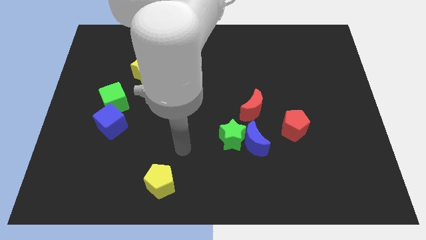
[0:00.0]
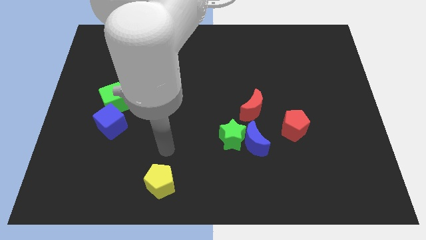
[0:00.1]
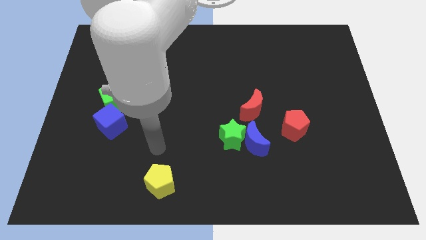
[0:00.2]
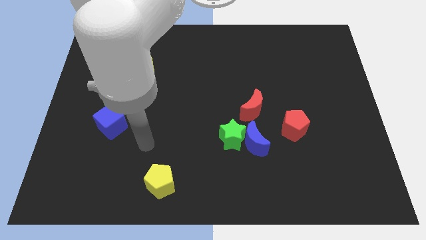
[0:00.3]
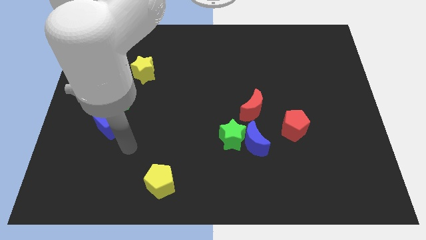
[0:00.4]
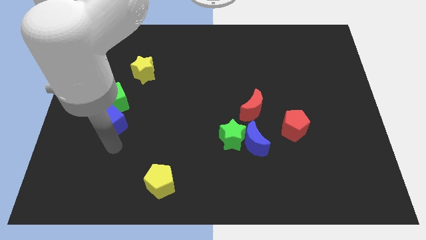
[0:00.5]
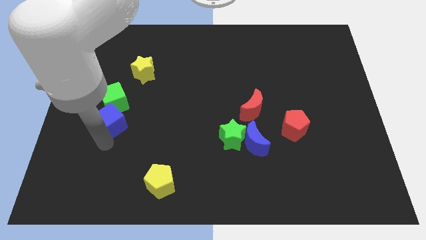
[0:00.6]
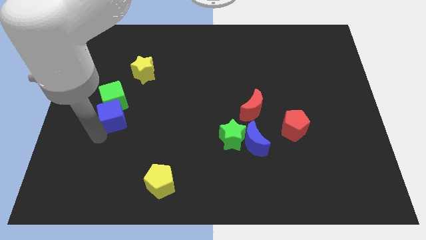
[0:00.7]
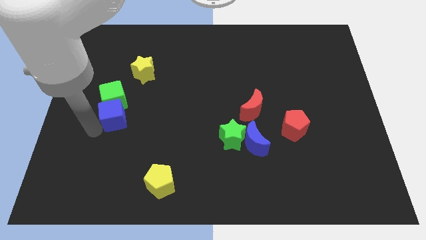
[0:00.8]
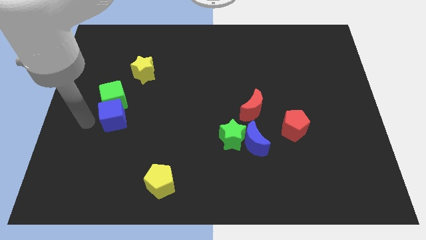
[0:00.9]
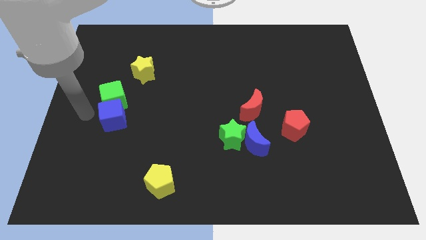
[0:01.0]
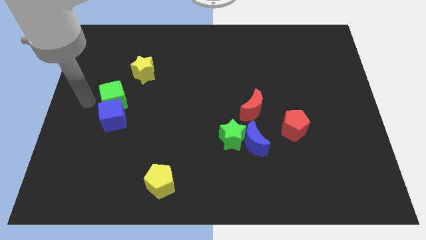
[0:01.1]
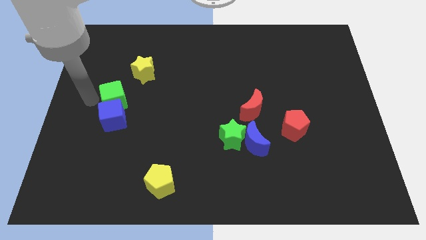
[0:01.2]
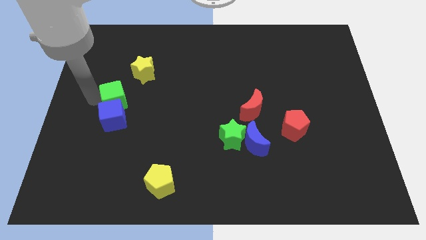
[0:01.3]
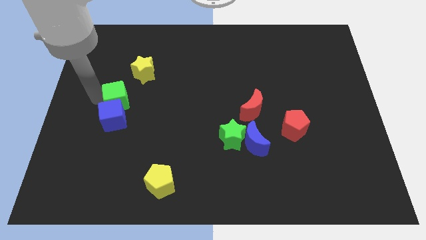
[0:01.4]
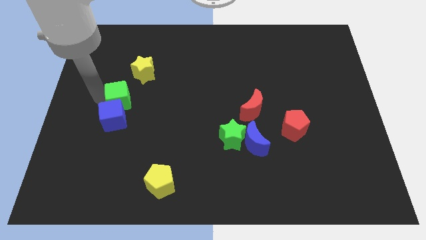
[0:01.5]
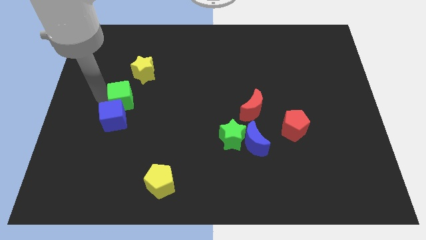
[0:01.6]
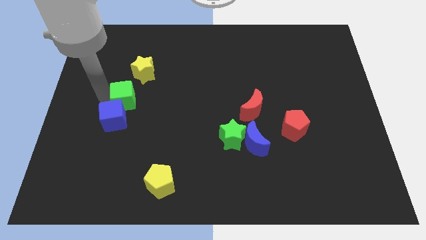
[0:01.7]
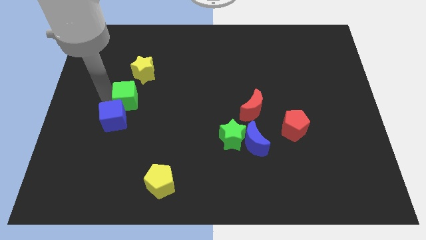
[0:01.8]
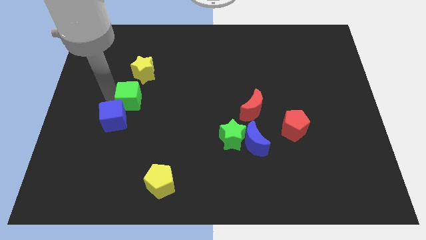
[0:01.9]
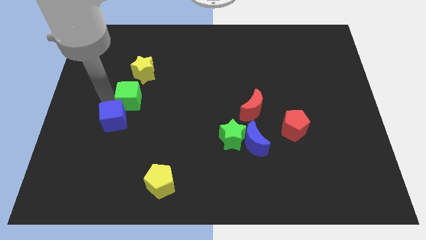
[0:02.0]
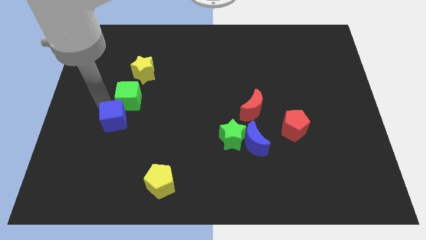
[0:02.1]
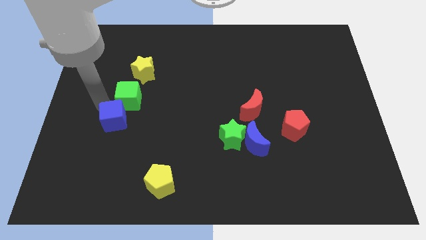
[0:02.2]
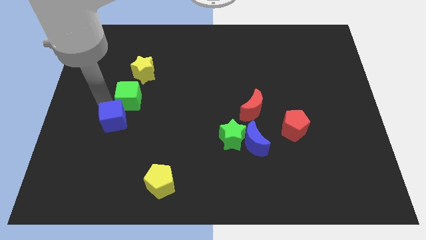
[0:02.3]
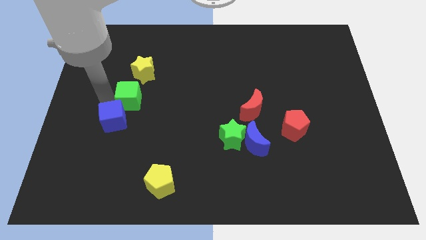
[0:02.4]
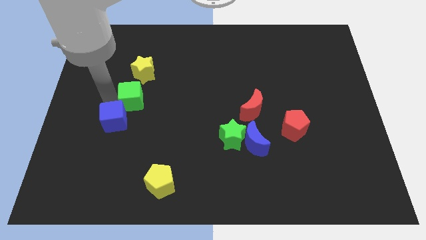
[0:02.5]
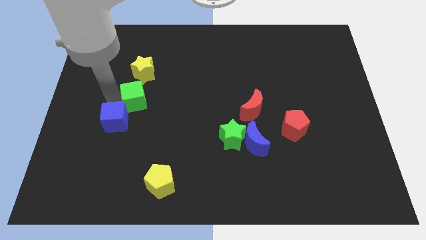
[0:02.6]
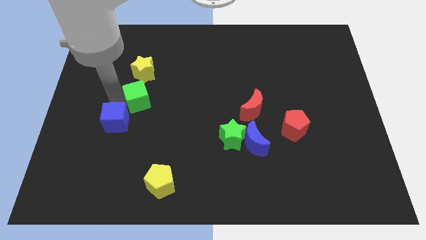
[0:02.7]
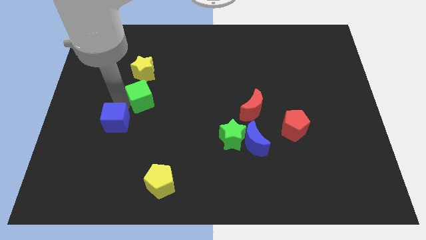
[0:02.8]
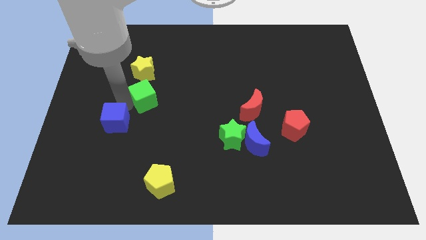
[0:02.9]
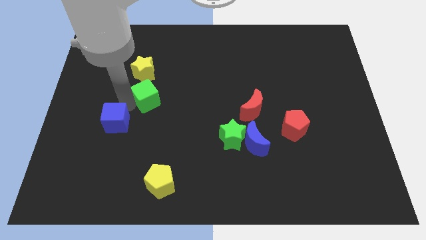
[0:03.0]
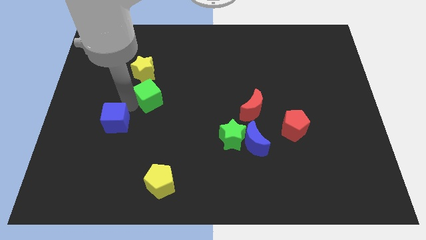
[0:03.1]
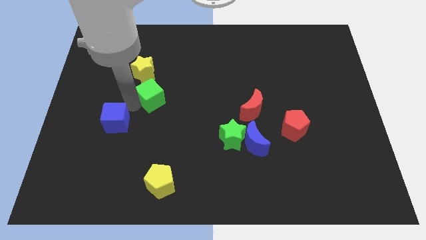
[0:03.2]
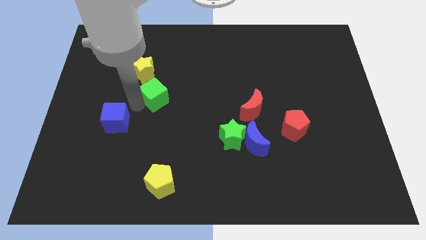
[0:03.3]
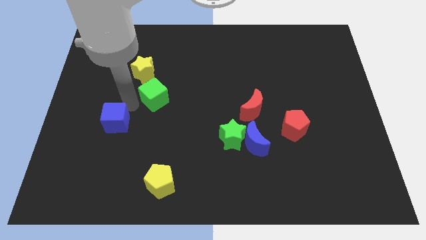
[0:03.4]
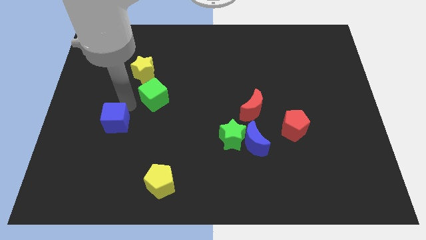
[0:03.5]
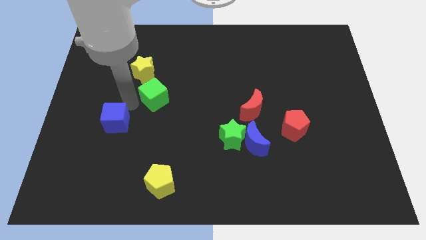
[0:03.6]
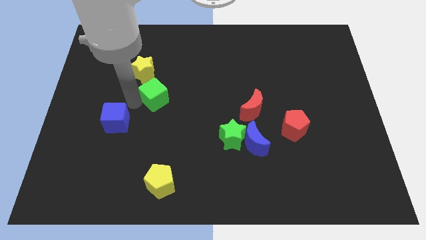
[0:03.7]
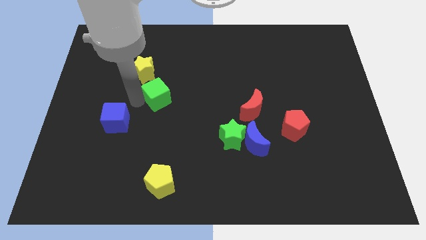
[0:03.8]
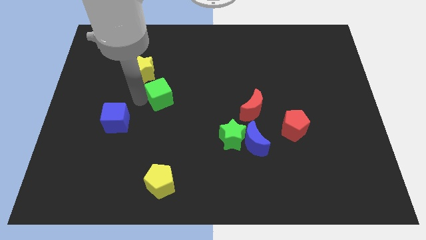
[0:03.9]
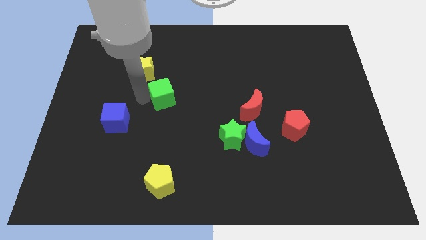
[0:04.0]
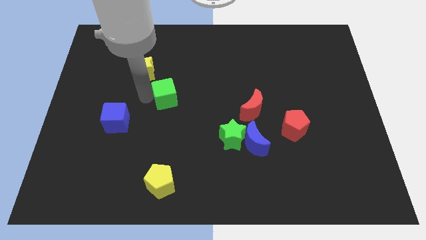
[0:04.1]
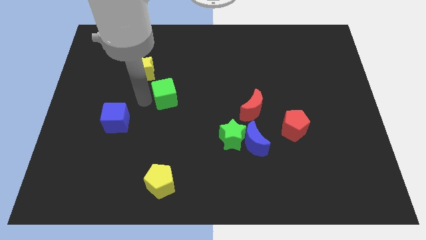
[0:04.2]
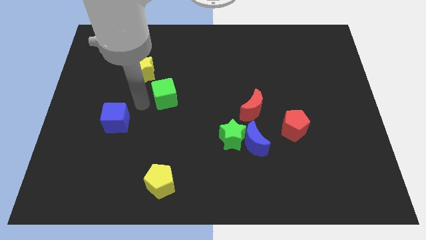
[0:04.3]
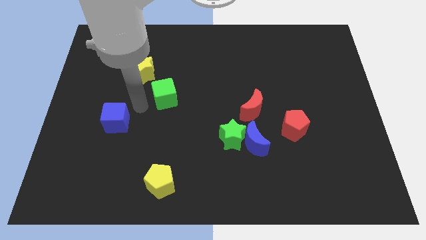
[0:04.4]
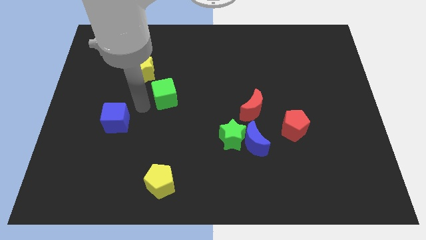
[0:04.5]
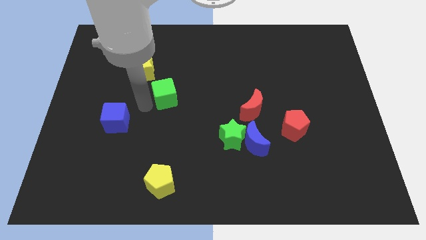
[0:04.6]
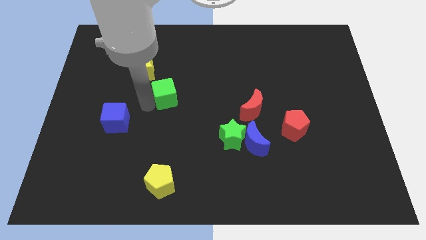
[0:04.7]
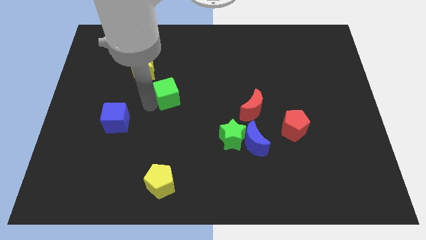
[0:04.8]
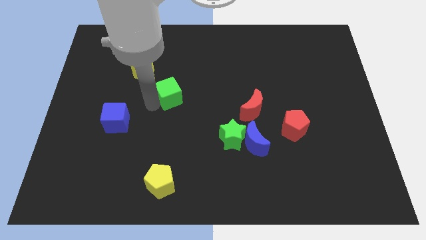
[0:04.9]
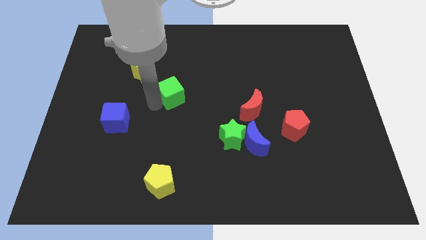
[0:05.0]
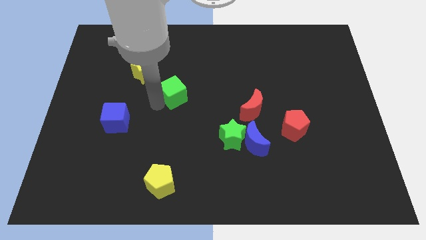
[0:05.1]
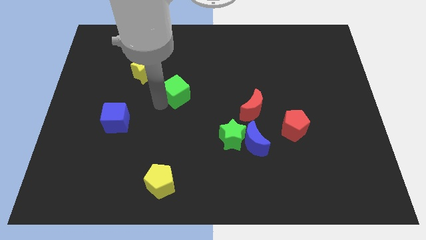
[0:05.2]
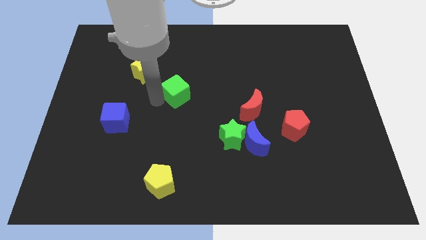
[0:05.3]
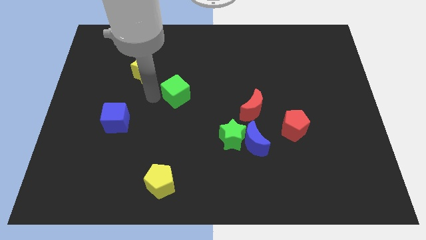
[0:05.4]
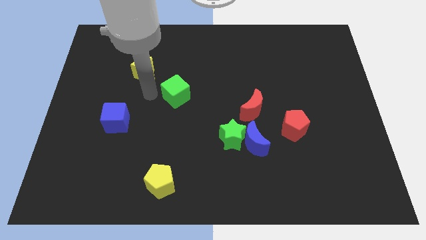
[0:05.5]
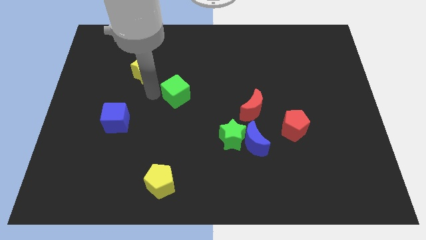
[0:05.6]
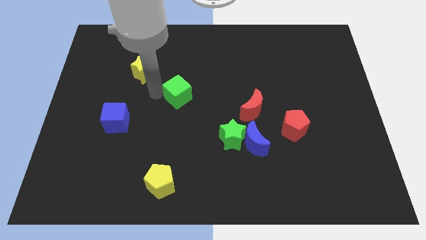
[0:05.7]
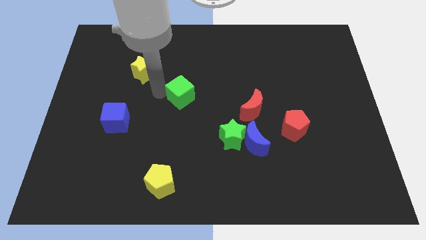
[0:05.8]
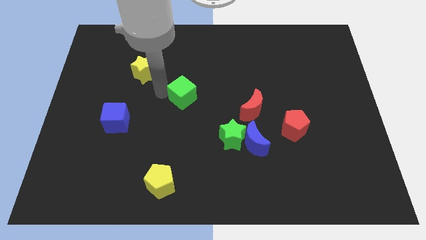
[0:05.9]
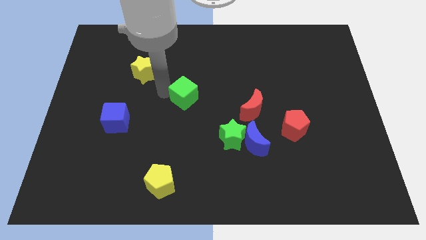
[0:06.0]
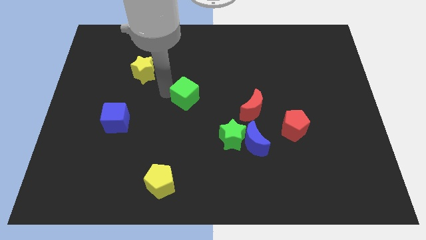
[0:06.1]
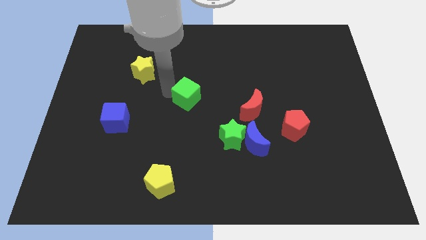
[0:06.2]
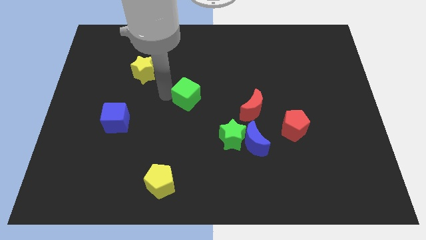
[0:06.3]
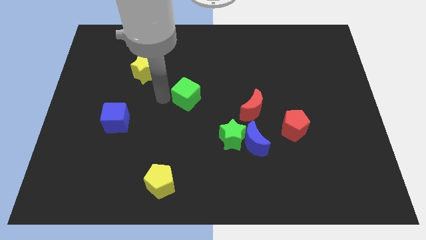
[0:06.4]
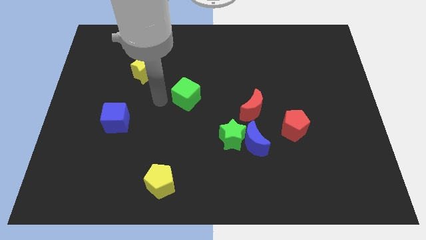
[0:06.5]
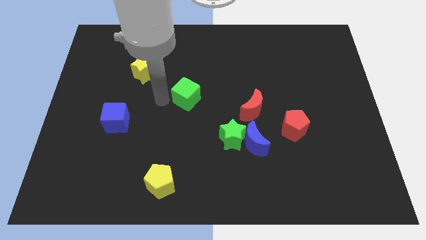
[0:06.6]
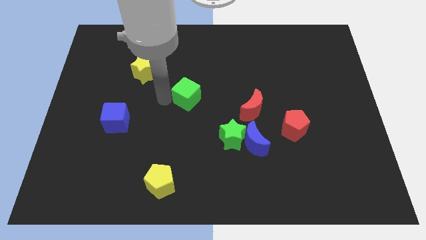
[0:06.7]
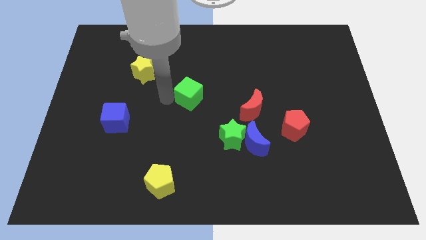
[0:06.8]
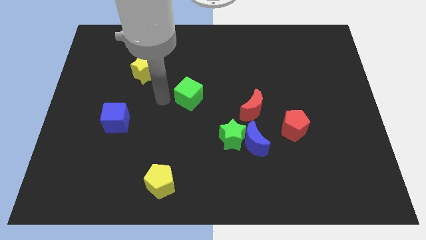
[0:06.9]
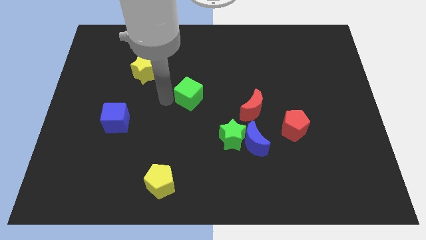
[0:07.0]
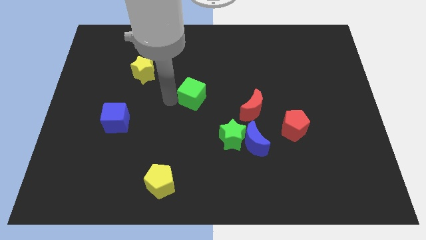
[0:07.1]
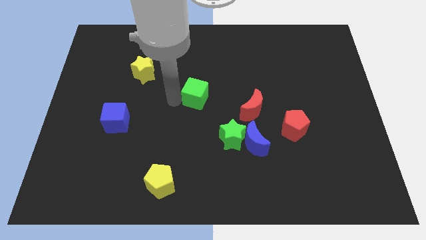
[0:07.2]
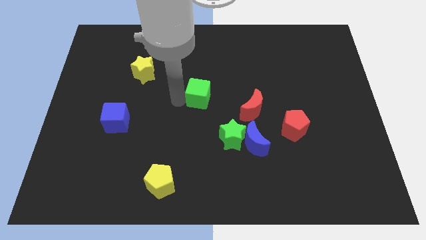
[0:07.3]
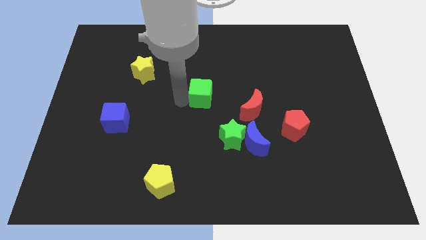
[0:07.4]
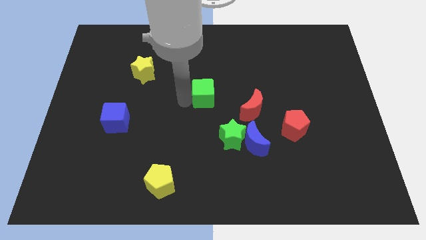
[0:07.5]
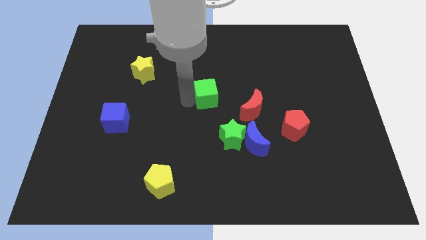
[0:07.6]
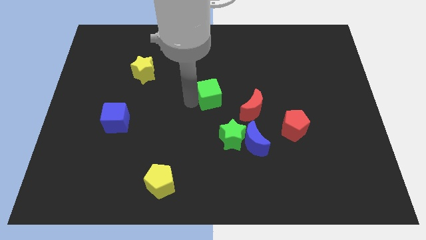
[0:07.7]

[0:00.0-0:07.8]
move the green cube diagonally up and to the left of the red moon

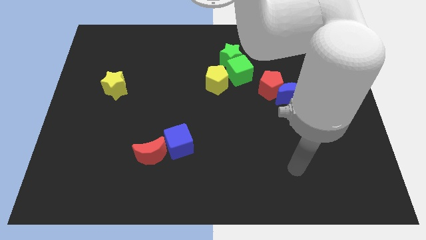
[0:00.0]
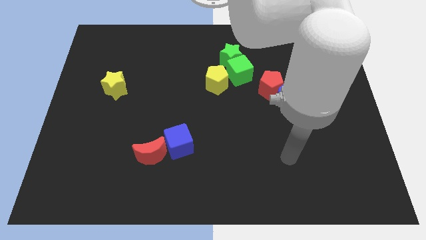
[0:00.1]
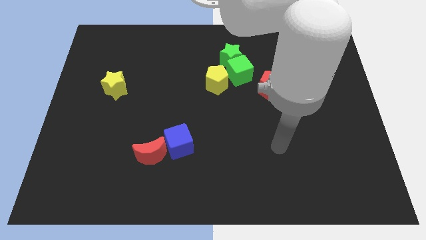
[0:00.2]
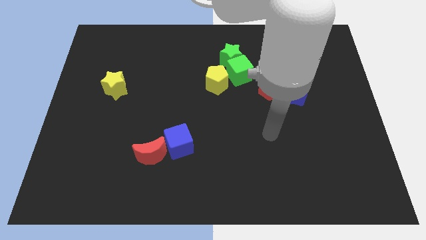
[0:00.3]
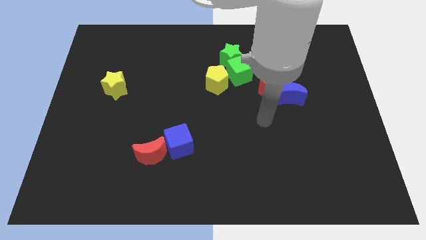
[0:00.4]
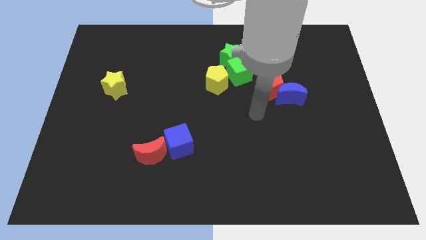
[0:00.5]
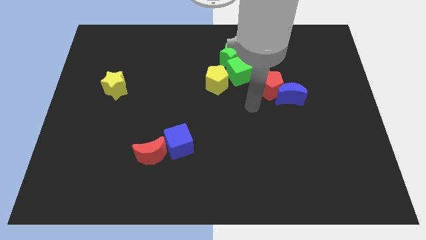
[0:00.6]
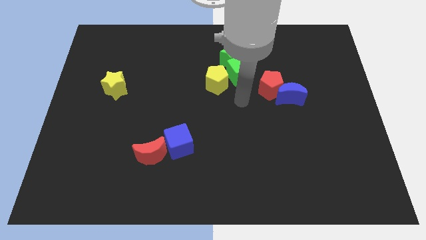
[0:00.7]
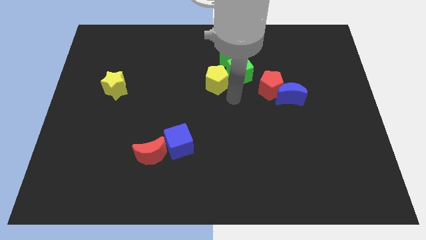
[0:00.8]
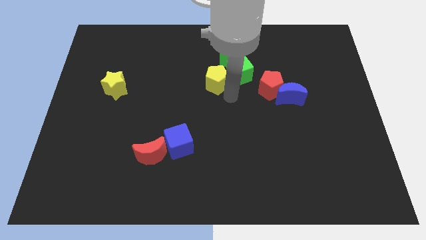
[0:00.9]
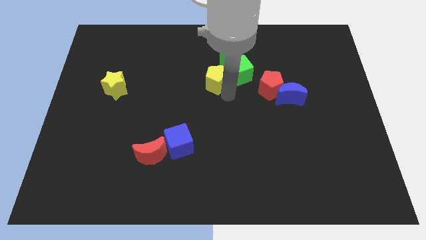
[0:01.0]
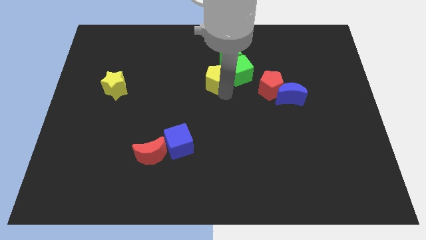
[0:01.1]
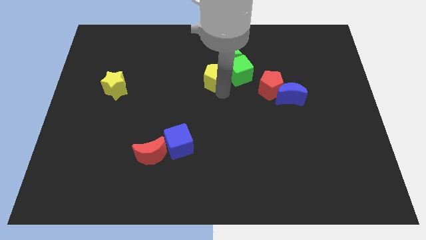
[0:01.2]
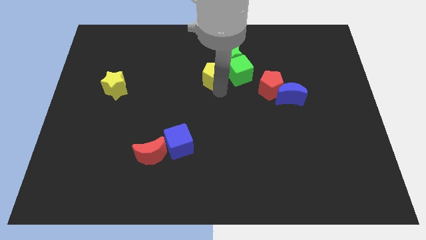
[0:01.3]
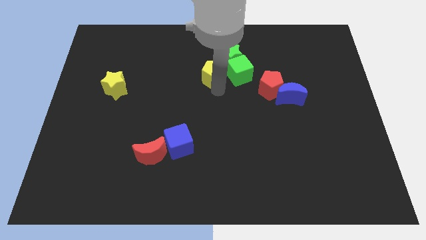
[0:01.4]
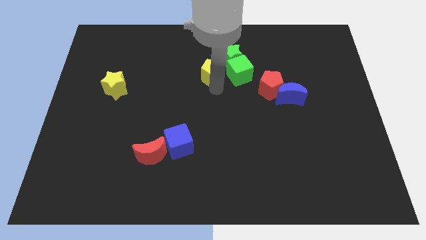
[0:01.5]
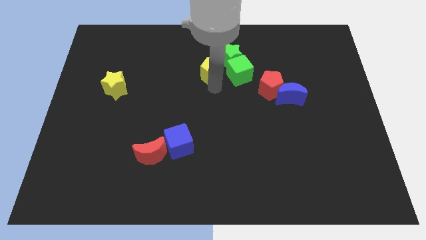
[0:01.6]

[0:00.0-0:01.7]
push the yellow pentagon to the left of the green star
